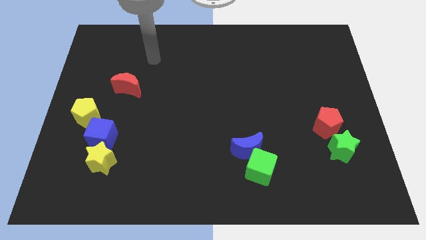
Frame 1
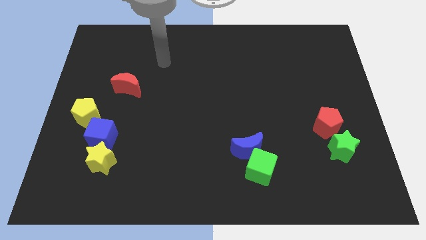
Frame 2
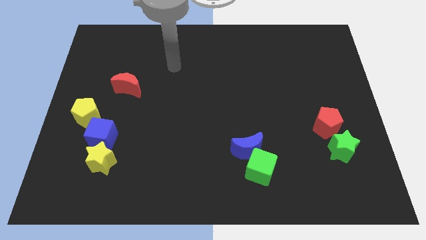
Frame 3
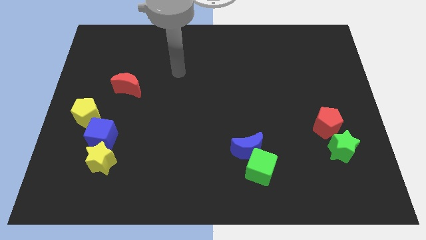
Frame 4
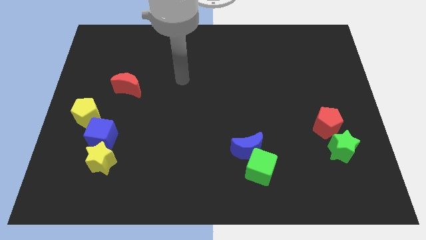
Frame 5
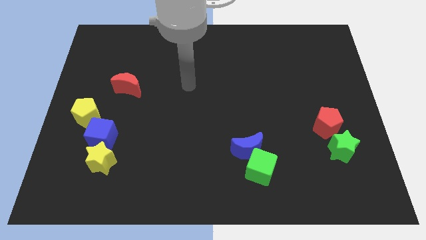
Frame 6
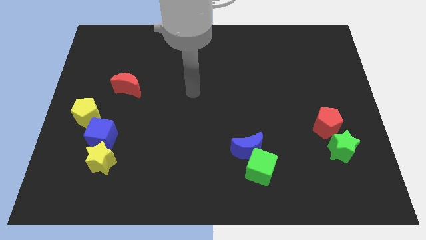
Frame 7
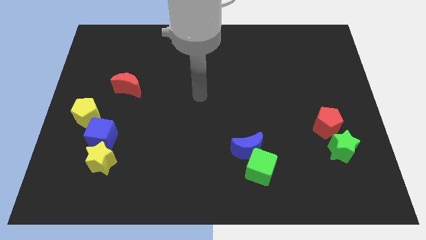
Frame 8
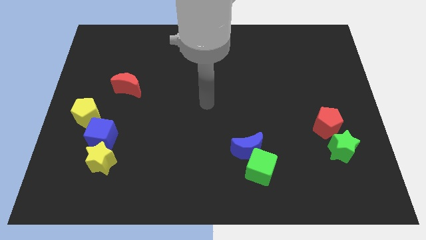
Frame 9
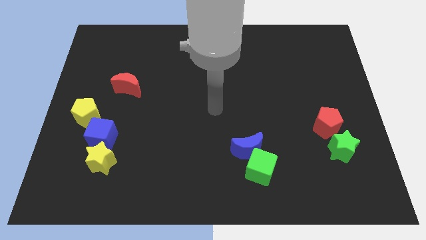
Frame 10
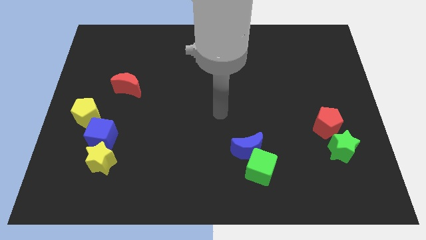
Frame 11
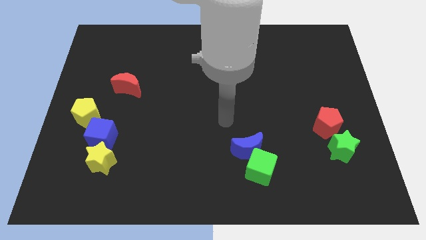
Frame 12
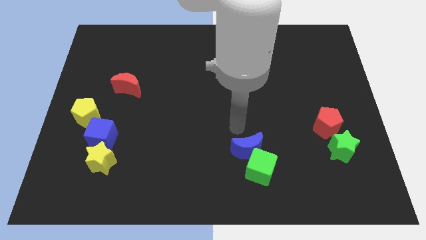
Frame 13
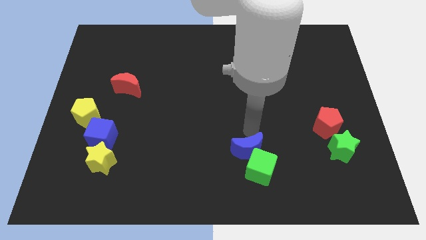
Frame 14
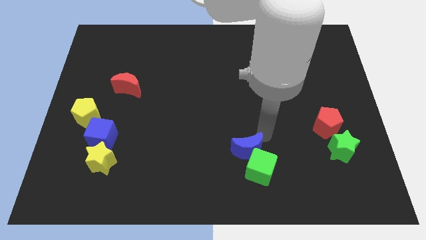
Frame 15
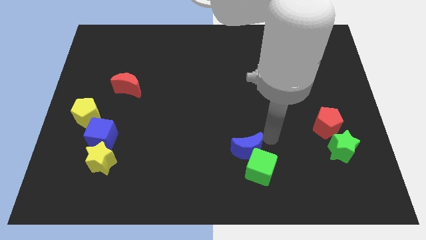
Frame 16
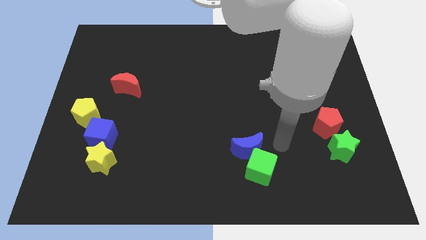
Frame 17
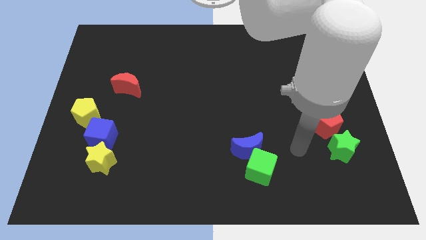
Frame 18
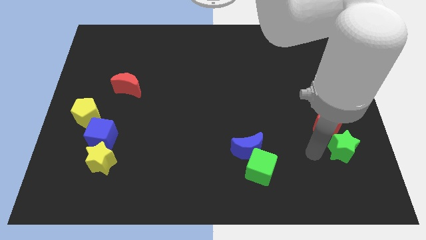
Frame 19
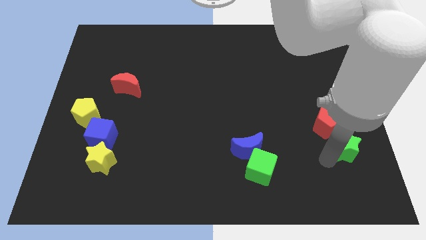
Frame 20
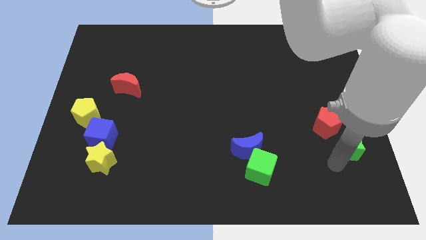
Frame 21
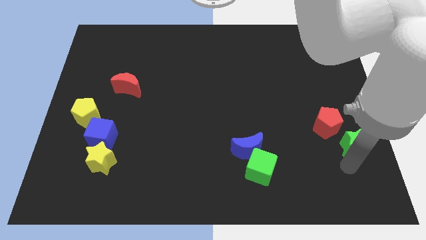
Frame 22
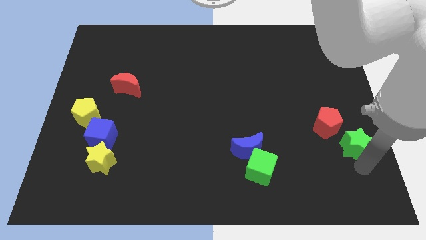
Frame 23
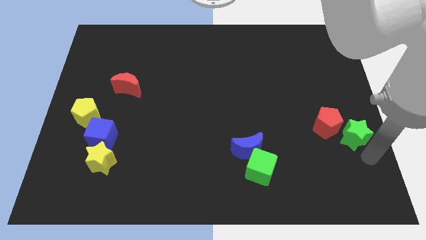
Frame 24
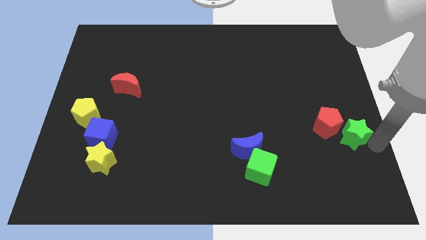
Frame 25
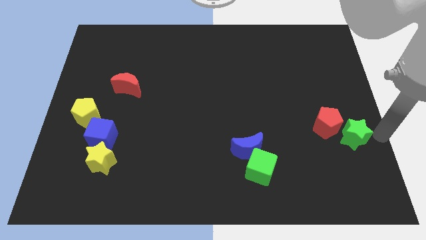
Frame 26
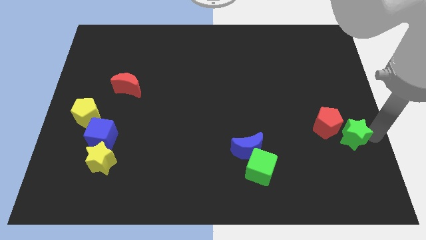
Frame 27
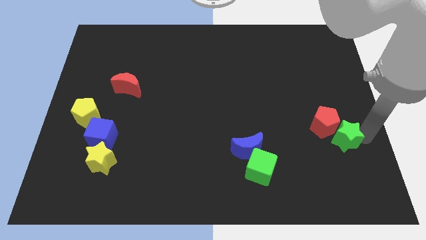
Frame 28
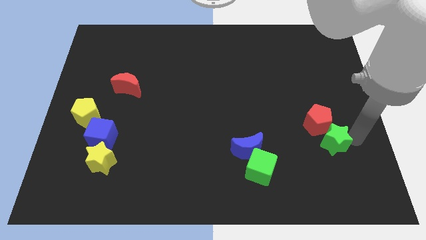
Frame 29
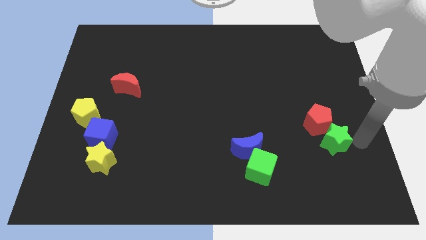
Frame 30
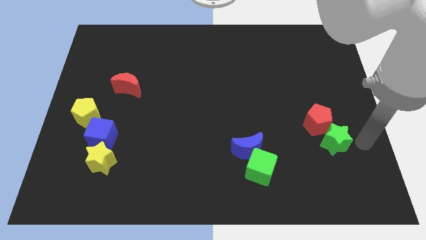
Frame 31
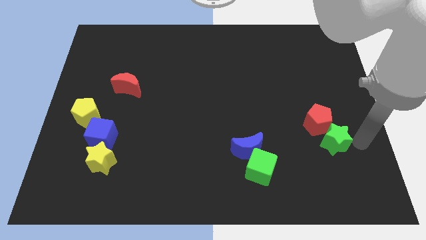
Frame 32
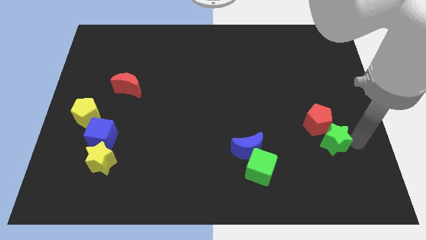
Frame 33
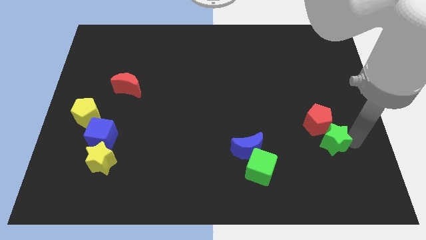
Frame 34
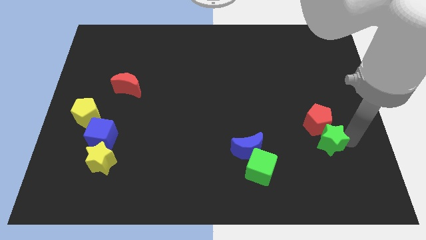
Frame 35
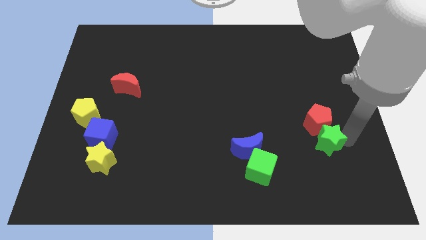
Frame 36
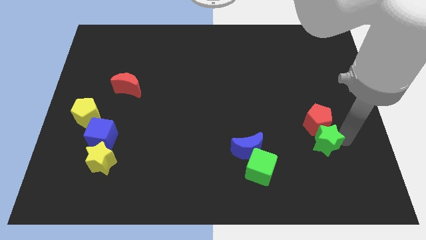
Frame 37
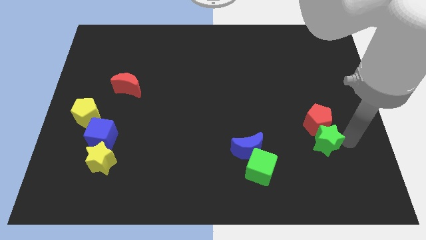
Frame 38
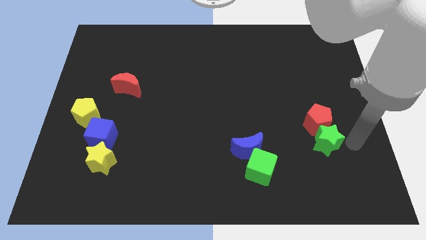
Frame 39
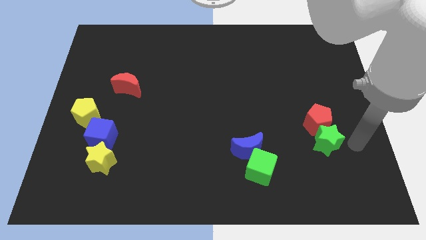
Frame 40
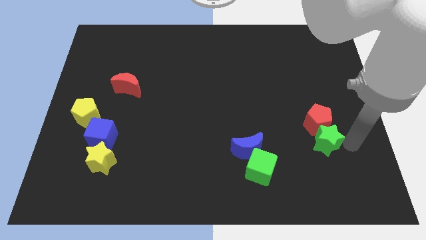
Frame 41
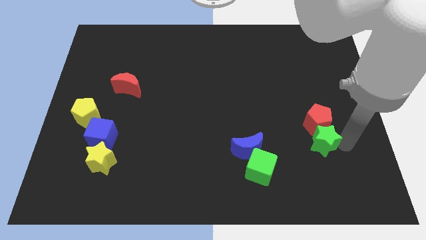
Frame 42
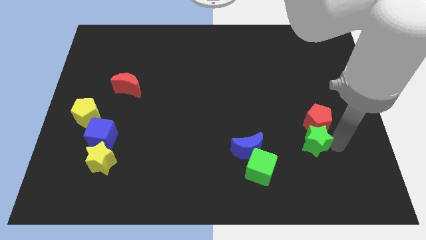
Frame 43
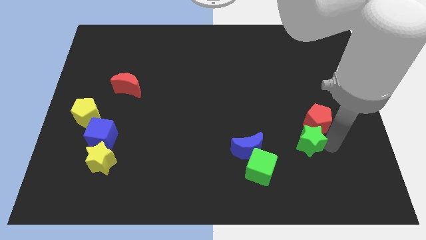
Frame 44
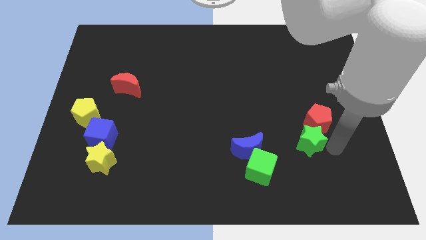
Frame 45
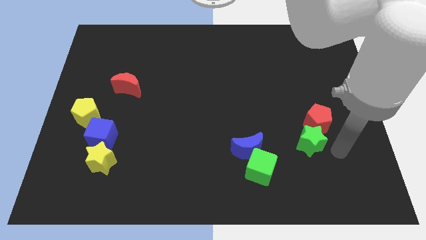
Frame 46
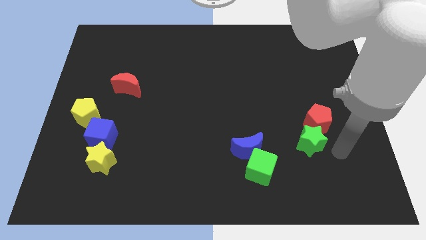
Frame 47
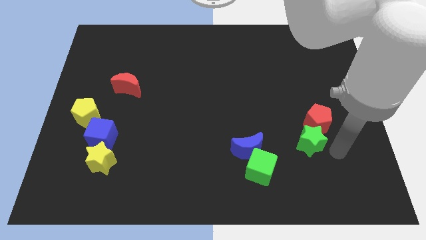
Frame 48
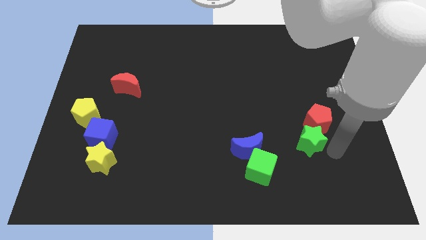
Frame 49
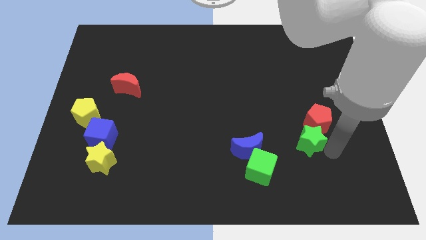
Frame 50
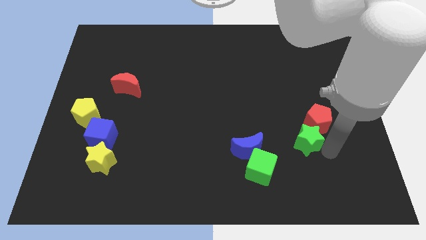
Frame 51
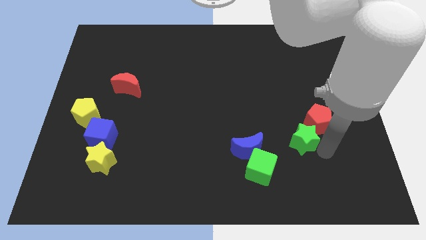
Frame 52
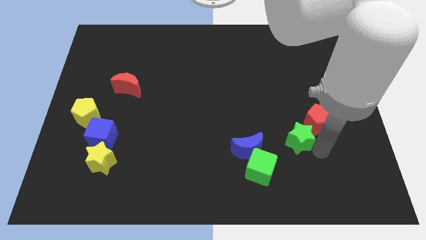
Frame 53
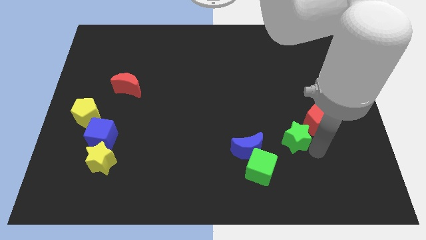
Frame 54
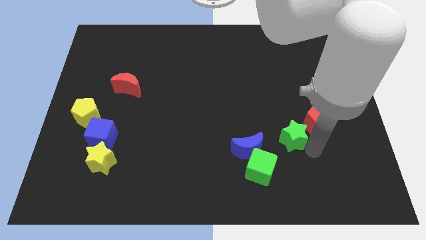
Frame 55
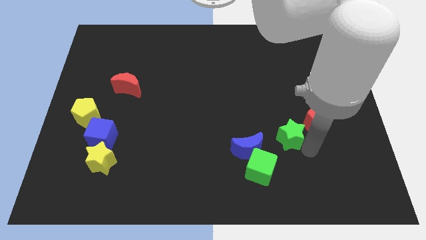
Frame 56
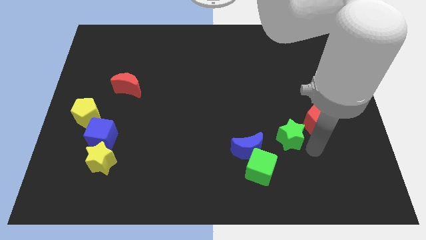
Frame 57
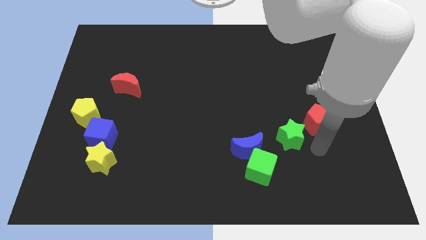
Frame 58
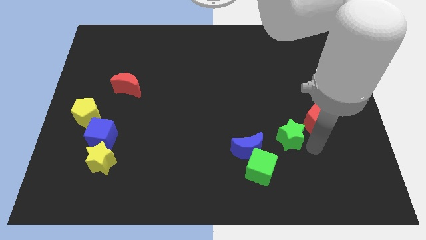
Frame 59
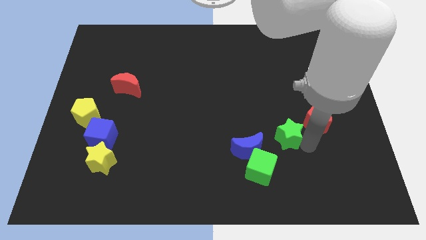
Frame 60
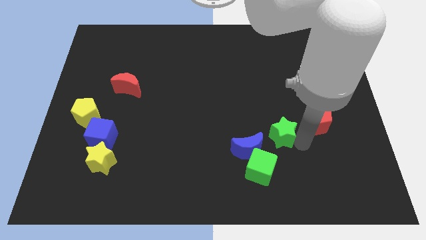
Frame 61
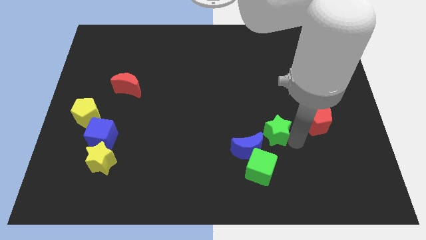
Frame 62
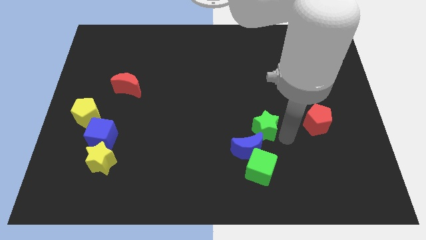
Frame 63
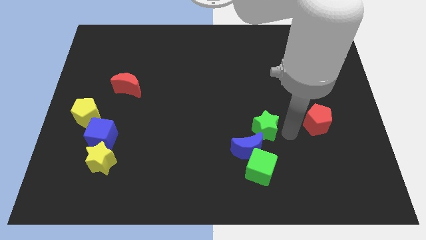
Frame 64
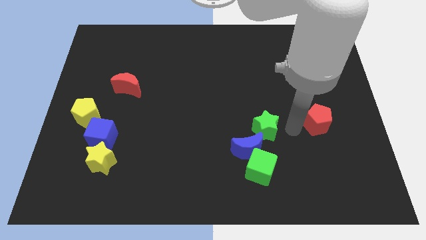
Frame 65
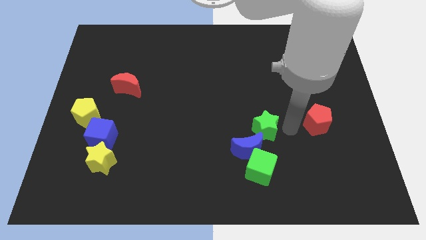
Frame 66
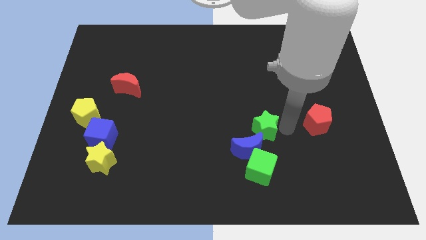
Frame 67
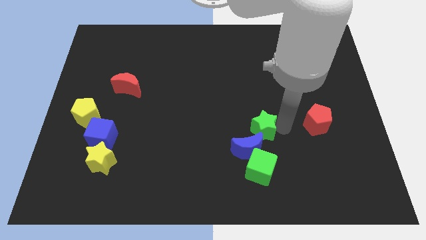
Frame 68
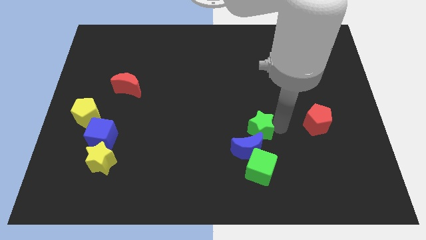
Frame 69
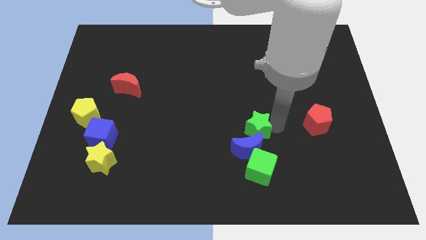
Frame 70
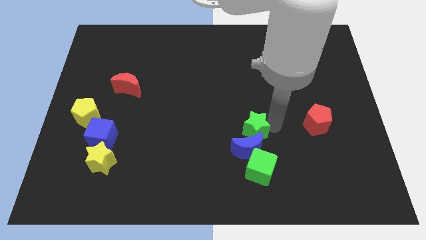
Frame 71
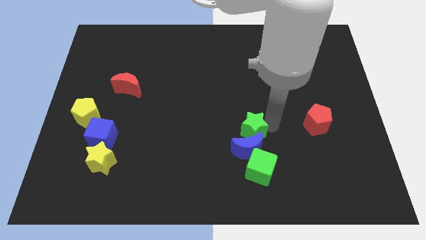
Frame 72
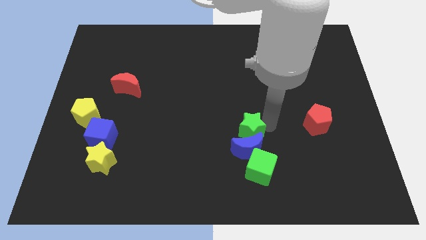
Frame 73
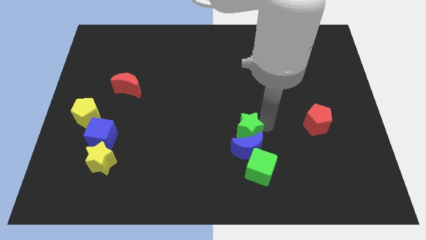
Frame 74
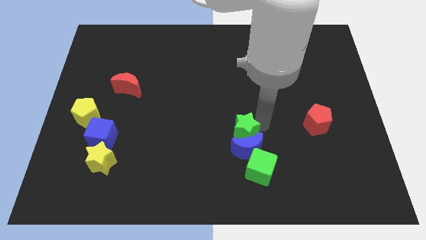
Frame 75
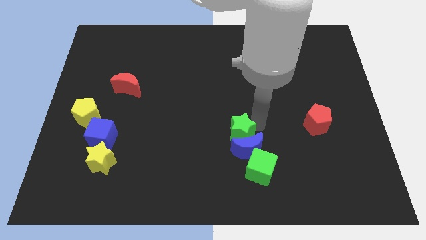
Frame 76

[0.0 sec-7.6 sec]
slide the green star left
